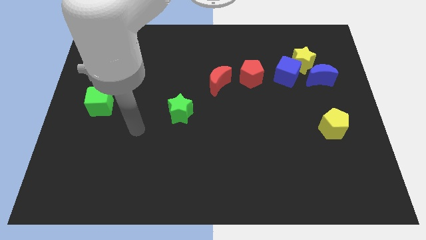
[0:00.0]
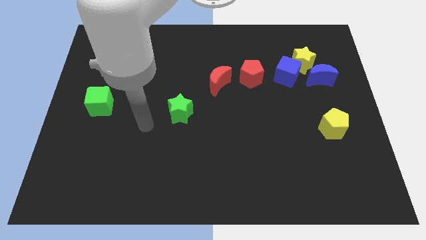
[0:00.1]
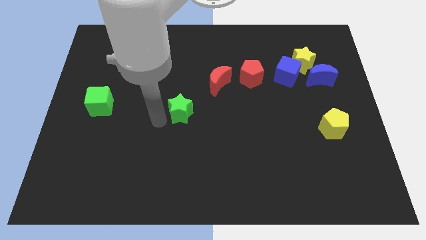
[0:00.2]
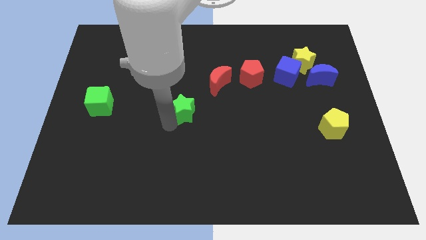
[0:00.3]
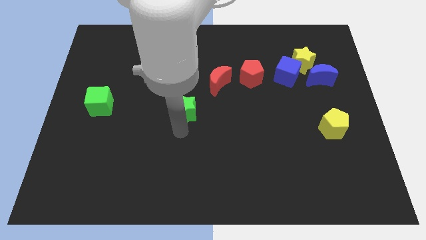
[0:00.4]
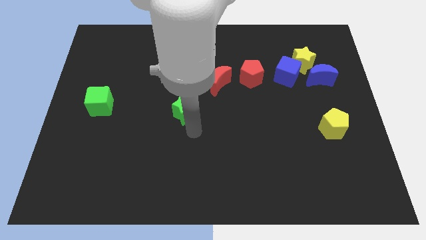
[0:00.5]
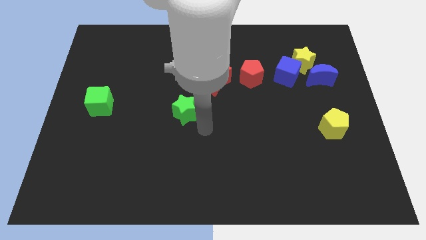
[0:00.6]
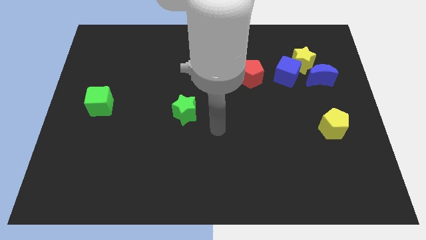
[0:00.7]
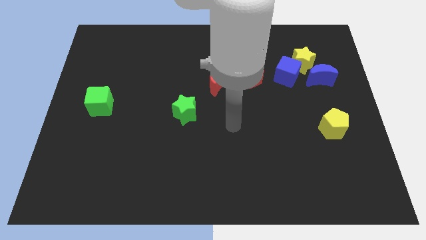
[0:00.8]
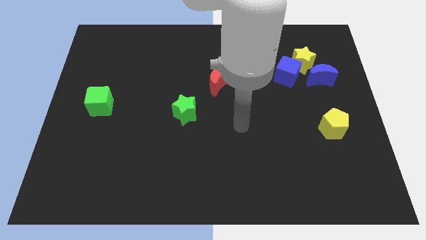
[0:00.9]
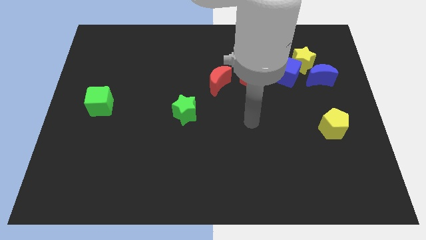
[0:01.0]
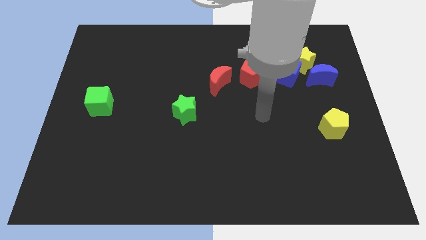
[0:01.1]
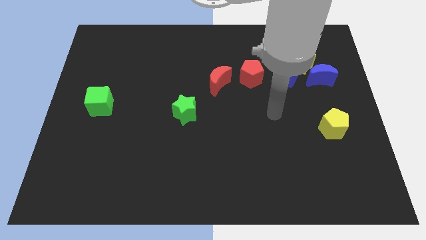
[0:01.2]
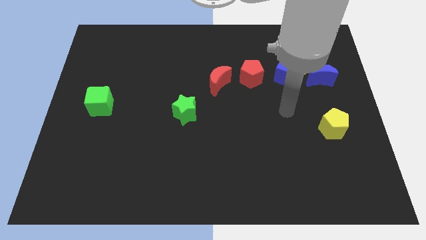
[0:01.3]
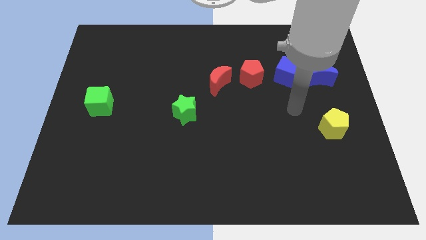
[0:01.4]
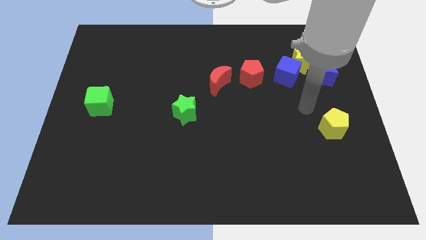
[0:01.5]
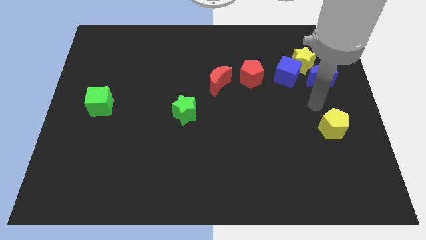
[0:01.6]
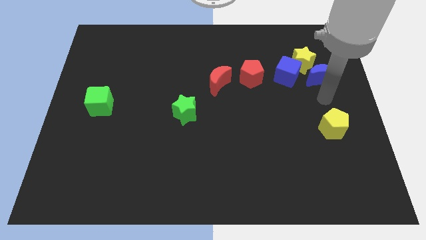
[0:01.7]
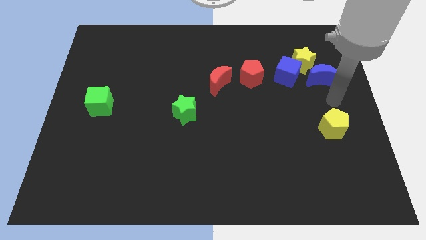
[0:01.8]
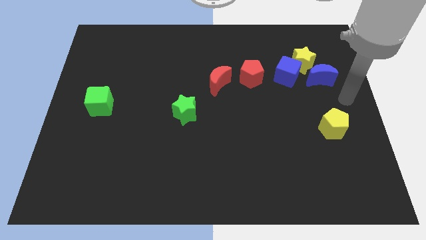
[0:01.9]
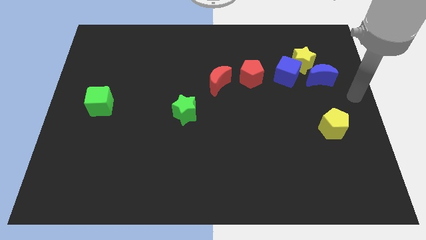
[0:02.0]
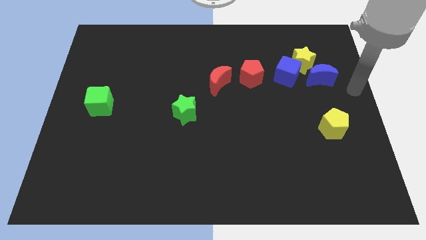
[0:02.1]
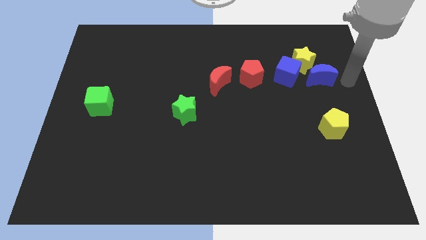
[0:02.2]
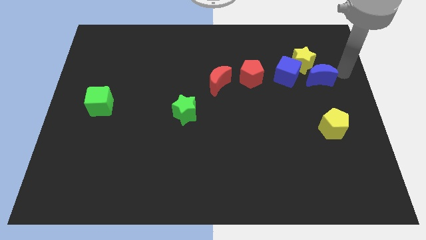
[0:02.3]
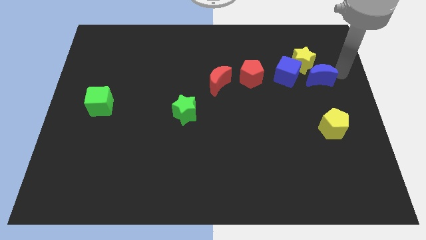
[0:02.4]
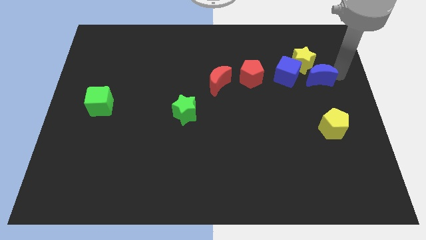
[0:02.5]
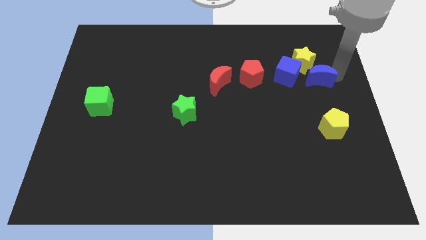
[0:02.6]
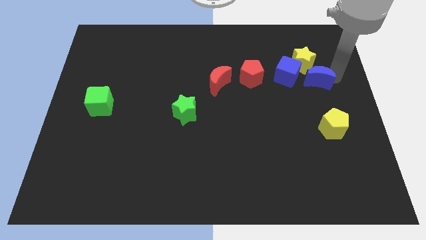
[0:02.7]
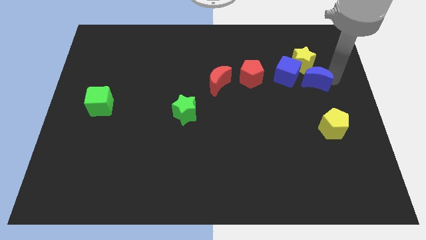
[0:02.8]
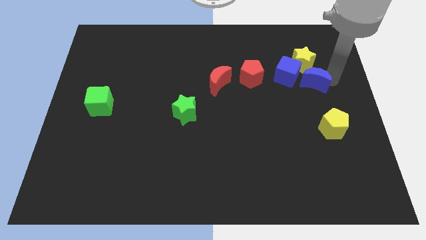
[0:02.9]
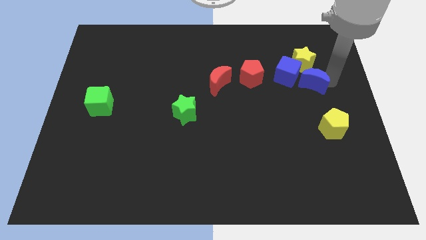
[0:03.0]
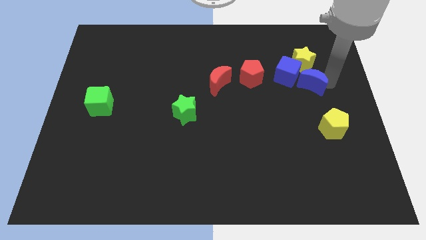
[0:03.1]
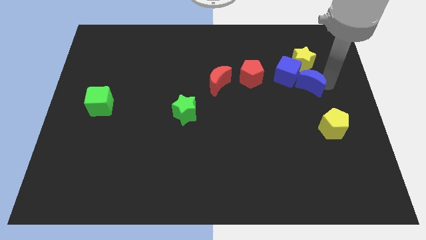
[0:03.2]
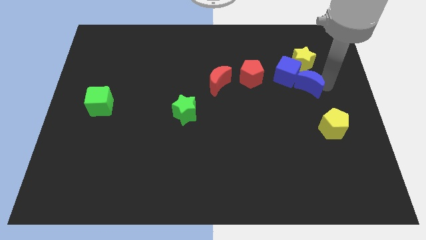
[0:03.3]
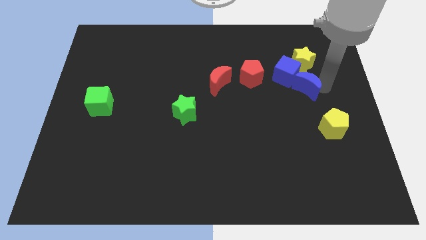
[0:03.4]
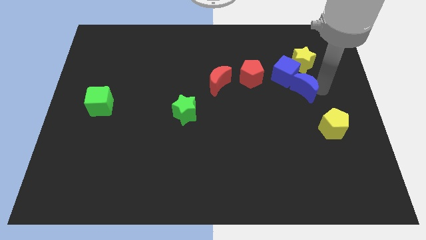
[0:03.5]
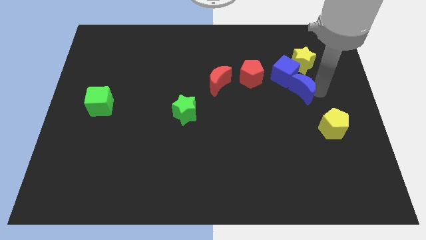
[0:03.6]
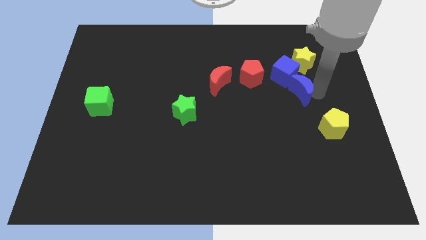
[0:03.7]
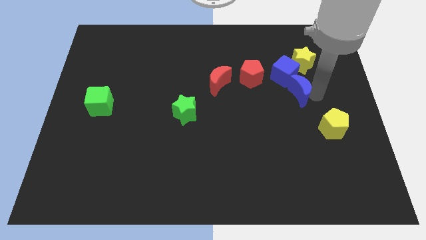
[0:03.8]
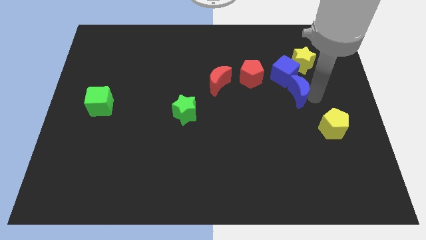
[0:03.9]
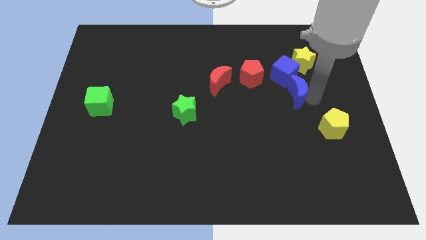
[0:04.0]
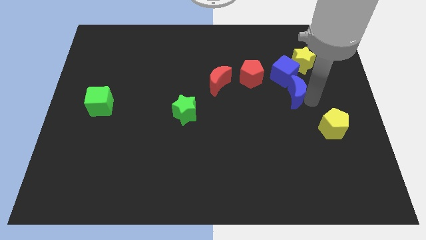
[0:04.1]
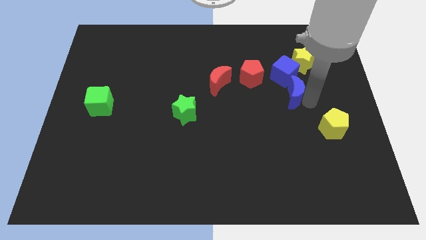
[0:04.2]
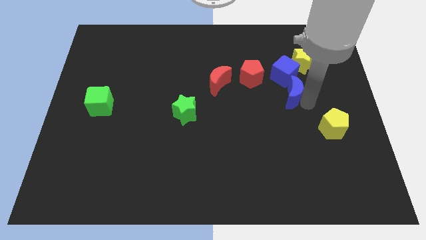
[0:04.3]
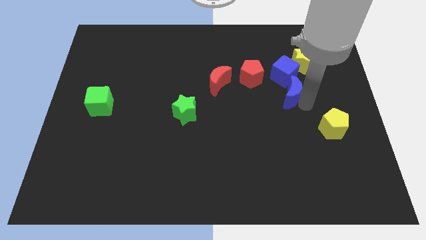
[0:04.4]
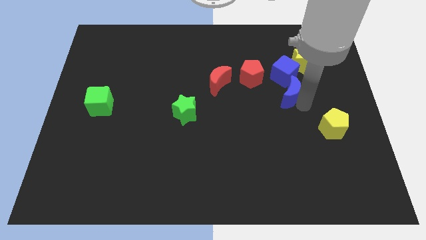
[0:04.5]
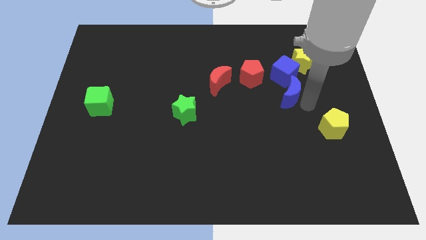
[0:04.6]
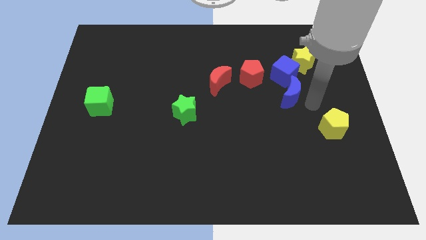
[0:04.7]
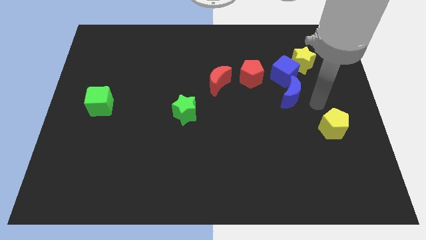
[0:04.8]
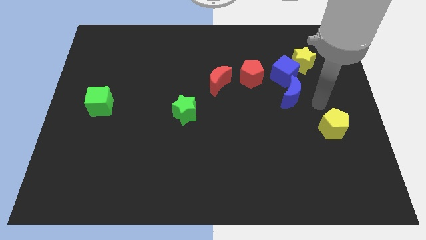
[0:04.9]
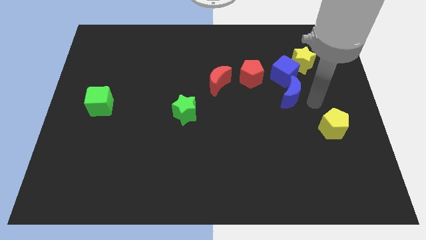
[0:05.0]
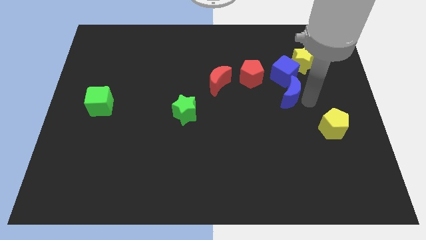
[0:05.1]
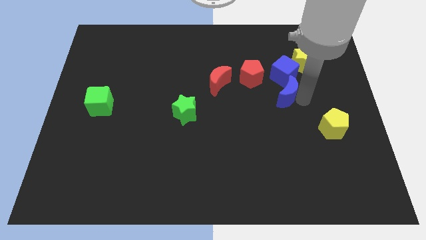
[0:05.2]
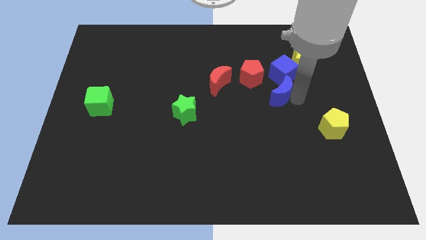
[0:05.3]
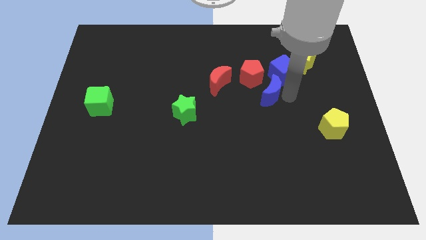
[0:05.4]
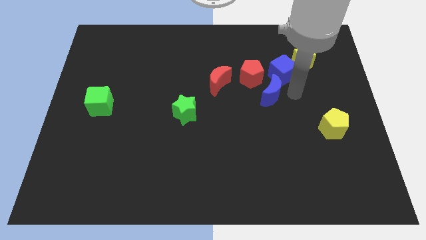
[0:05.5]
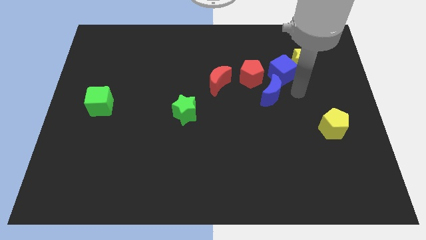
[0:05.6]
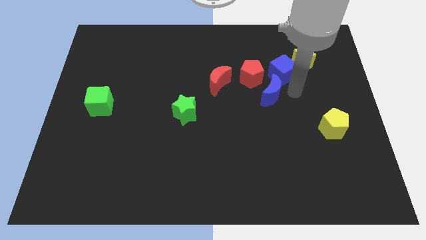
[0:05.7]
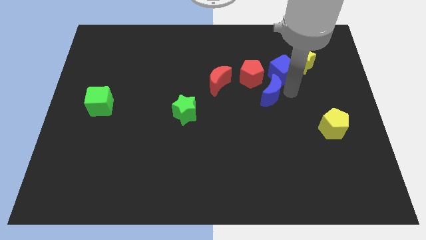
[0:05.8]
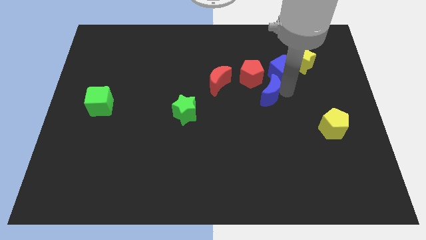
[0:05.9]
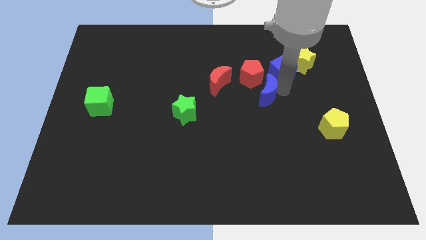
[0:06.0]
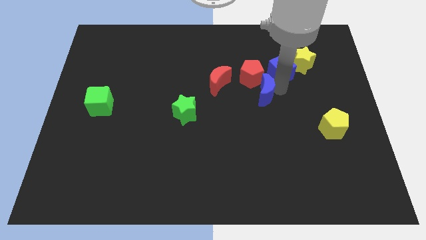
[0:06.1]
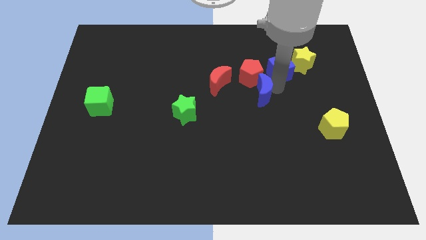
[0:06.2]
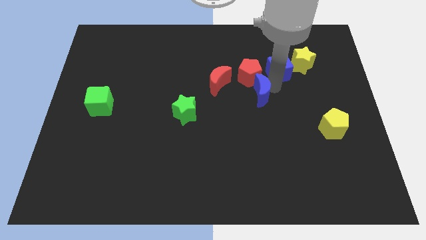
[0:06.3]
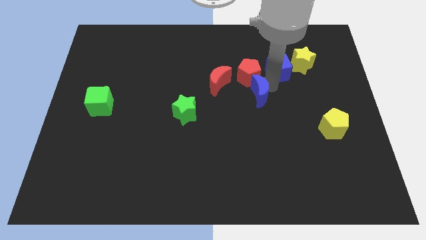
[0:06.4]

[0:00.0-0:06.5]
move the blue moon diagonally down and to the right of the red moon
